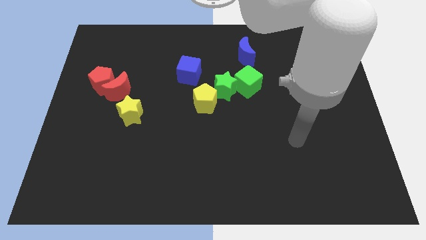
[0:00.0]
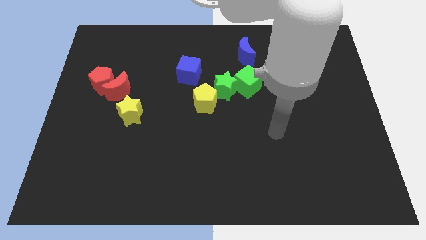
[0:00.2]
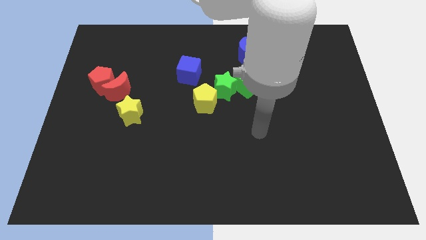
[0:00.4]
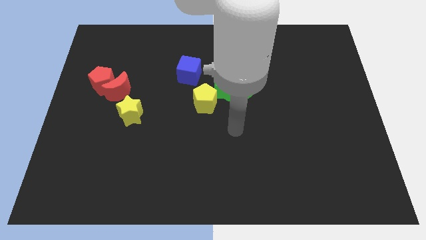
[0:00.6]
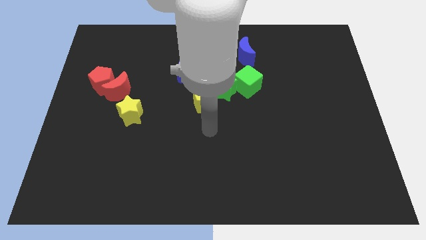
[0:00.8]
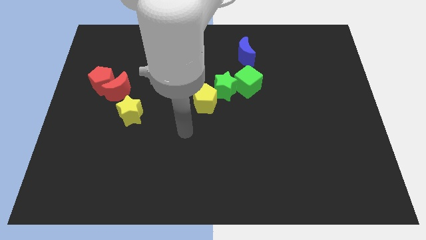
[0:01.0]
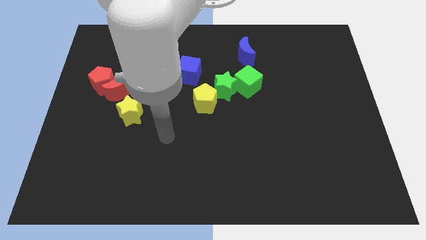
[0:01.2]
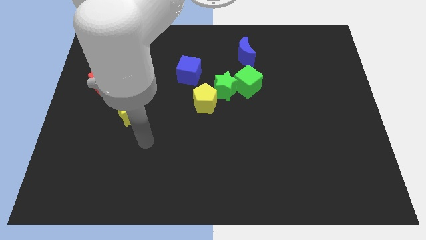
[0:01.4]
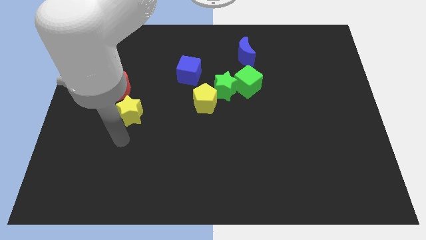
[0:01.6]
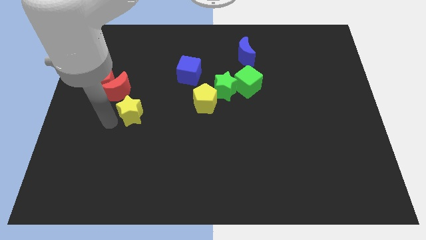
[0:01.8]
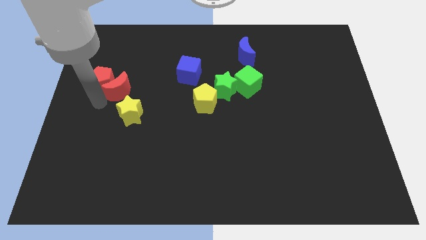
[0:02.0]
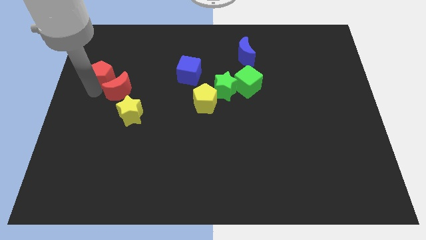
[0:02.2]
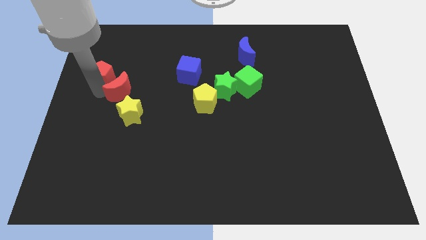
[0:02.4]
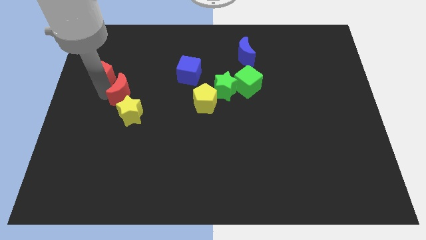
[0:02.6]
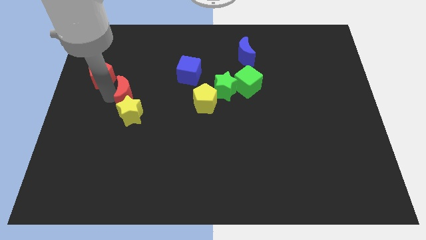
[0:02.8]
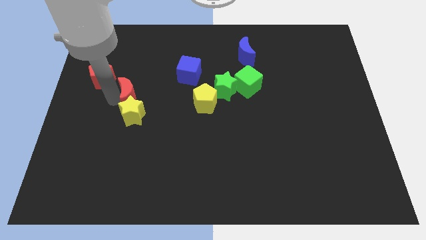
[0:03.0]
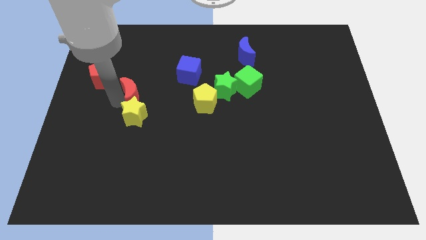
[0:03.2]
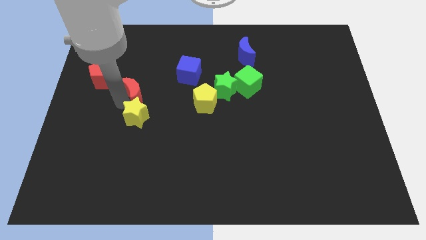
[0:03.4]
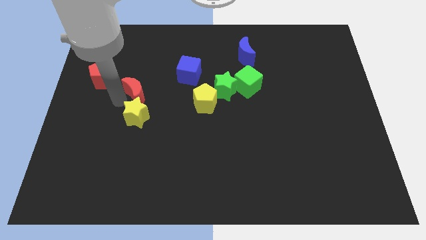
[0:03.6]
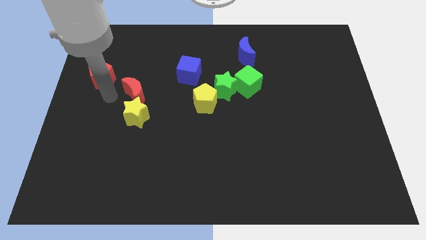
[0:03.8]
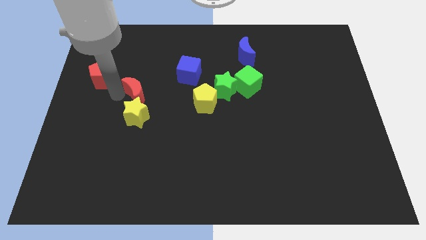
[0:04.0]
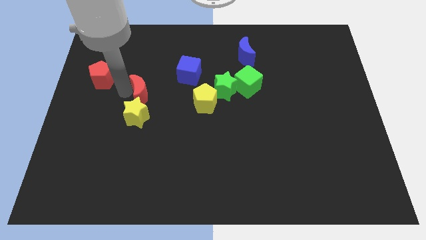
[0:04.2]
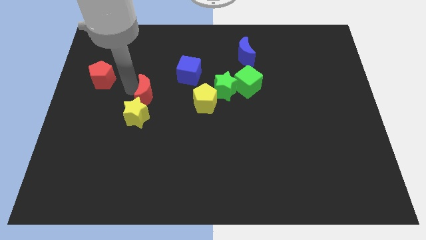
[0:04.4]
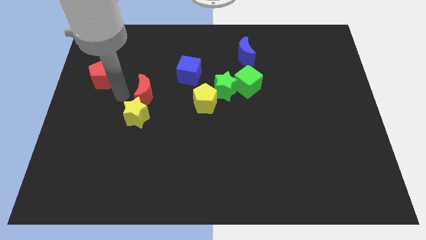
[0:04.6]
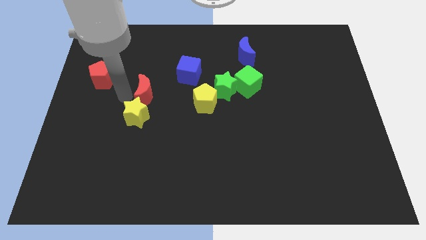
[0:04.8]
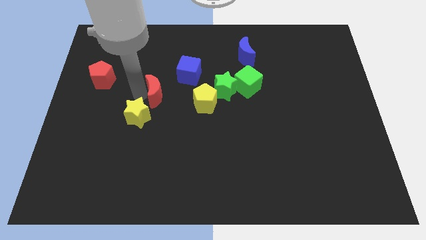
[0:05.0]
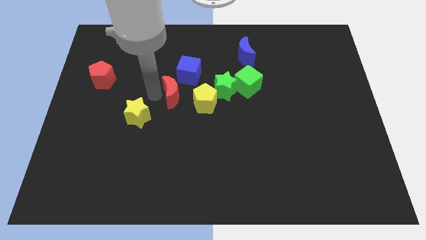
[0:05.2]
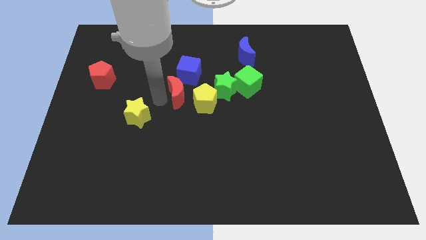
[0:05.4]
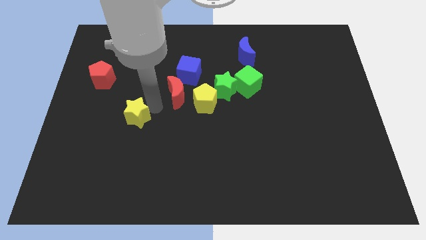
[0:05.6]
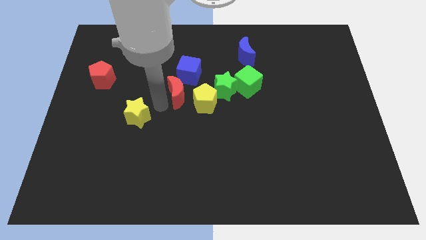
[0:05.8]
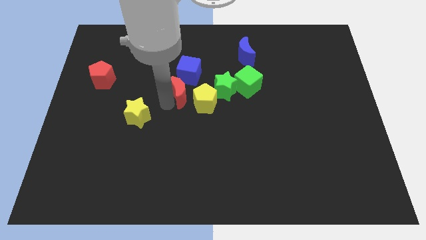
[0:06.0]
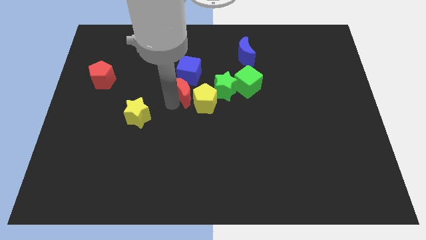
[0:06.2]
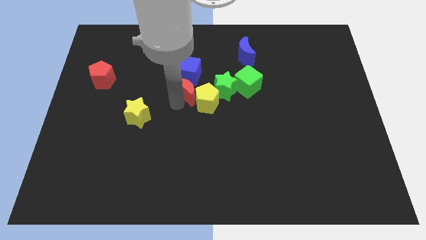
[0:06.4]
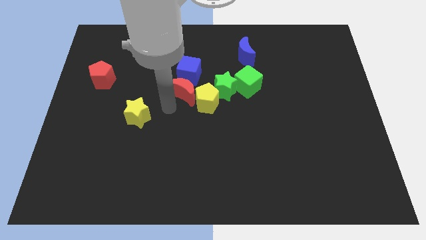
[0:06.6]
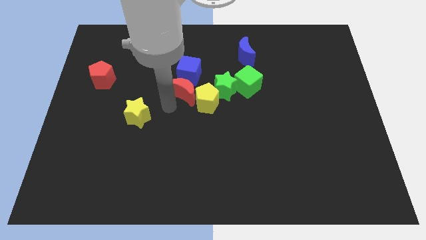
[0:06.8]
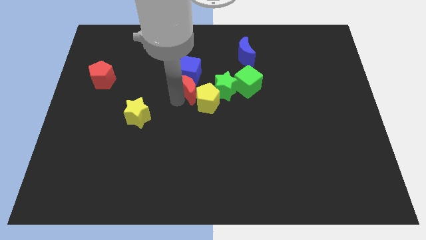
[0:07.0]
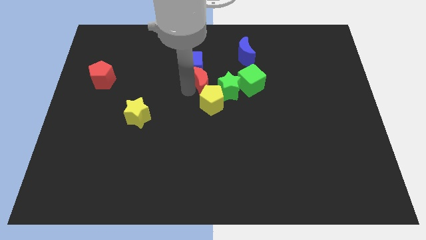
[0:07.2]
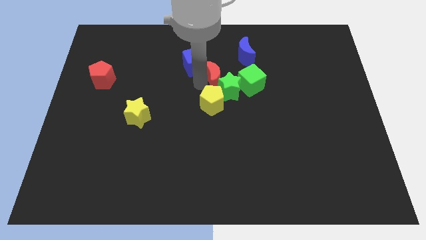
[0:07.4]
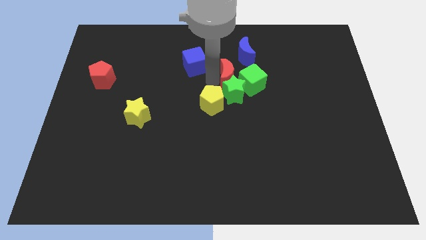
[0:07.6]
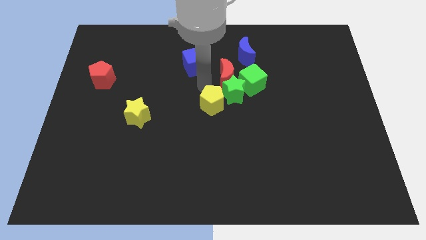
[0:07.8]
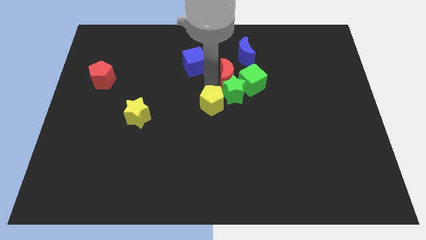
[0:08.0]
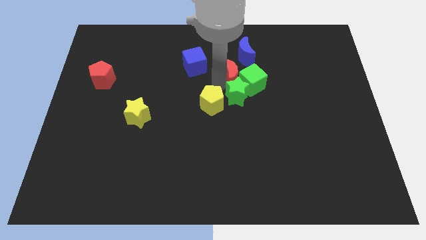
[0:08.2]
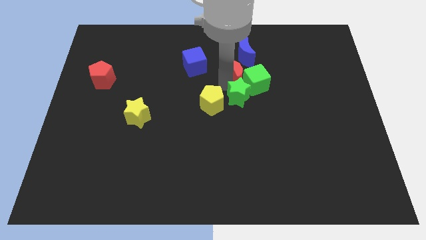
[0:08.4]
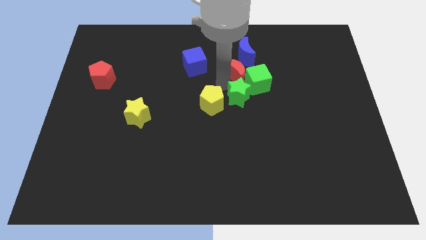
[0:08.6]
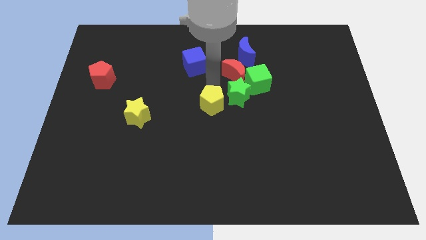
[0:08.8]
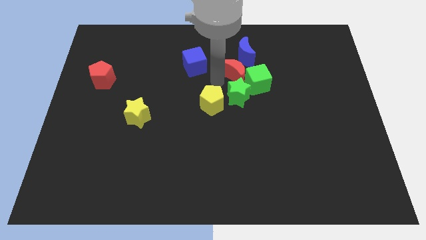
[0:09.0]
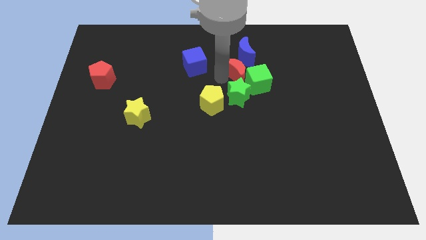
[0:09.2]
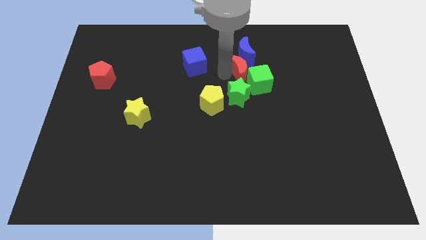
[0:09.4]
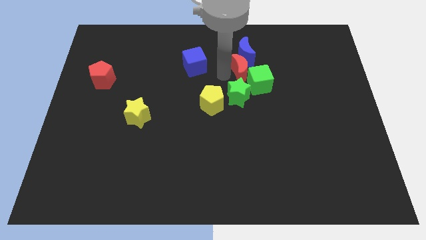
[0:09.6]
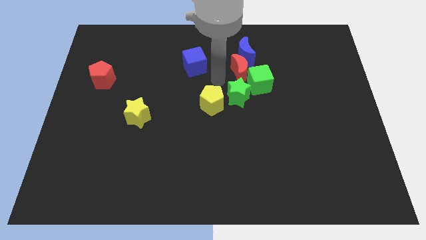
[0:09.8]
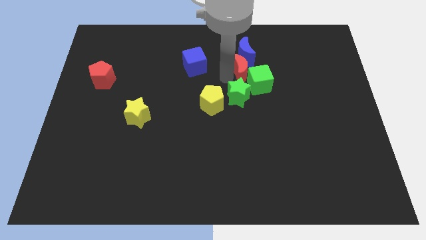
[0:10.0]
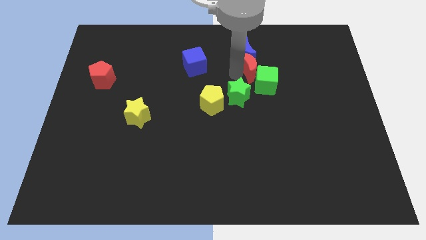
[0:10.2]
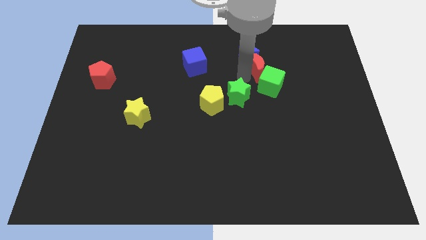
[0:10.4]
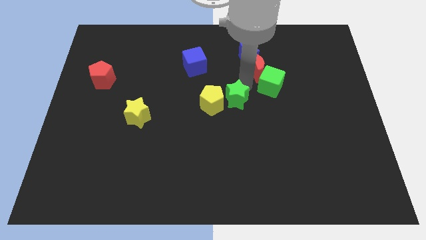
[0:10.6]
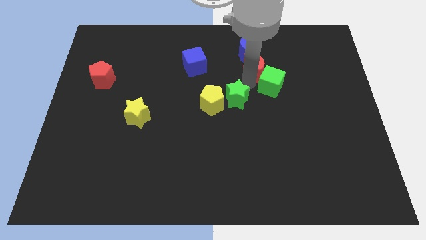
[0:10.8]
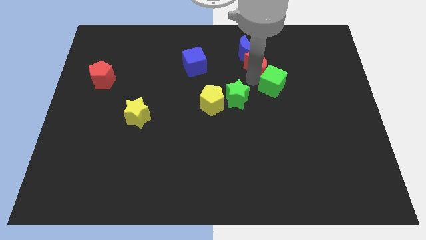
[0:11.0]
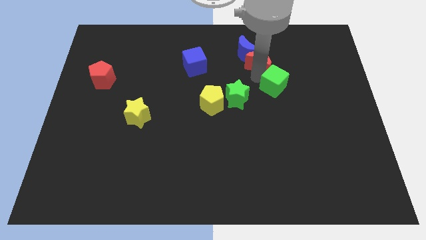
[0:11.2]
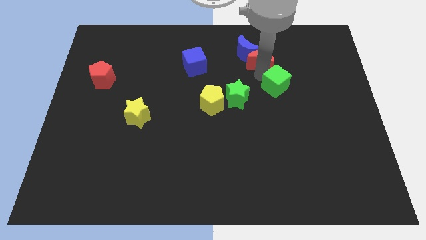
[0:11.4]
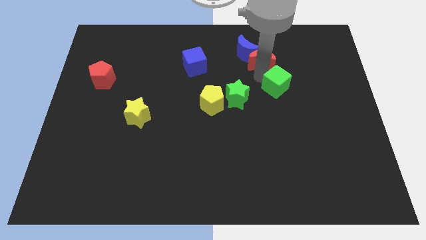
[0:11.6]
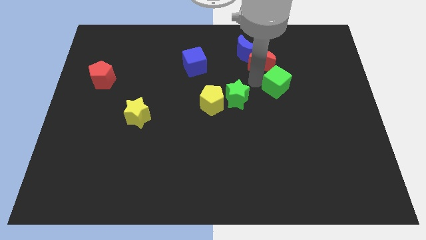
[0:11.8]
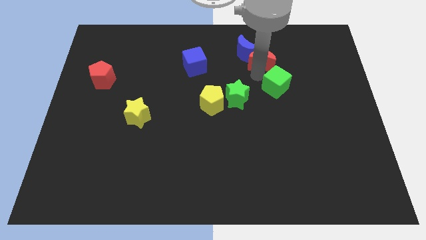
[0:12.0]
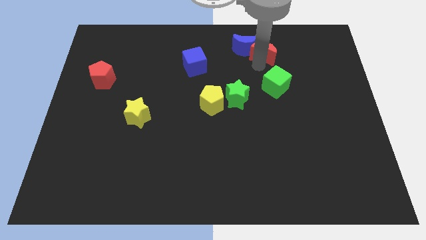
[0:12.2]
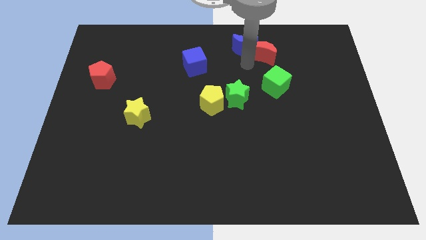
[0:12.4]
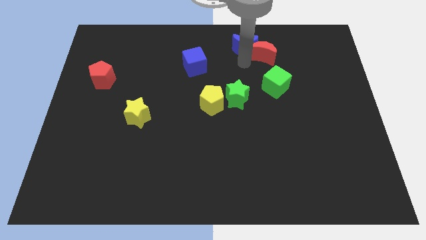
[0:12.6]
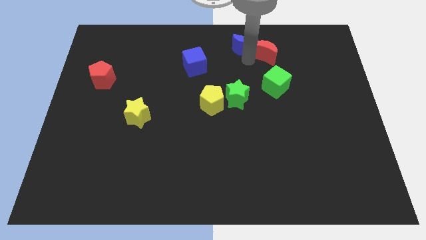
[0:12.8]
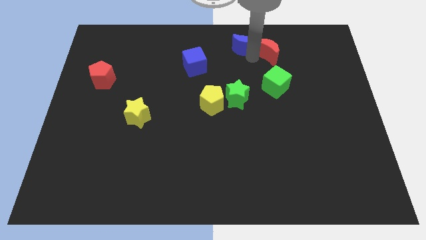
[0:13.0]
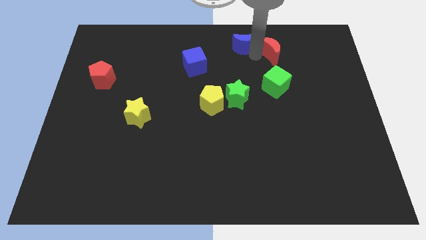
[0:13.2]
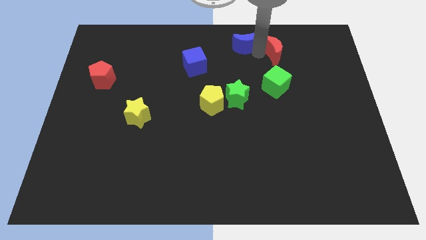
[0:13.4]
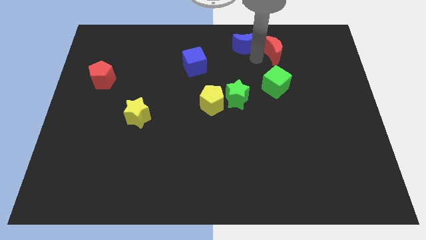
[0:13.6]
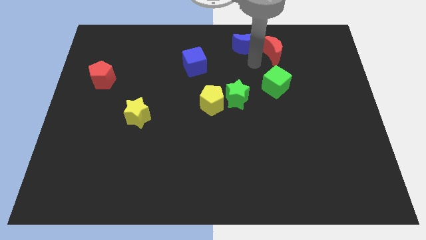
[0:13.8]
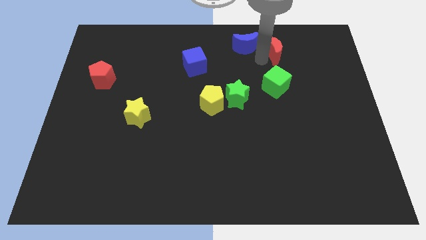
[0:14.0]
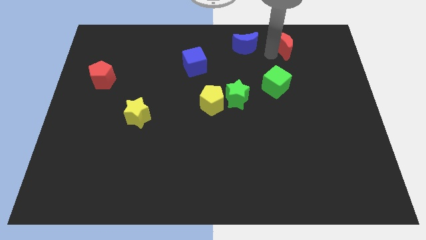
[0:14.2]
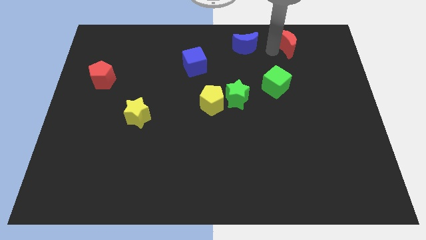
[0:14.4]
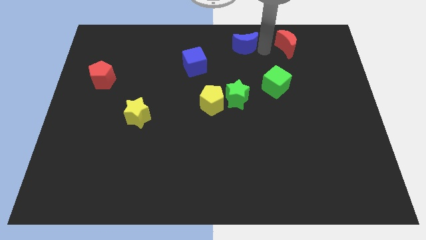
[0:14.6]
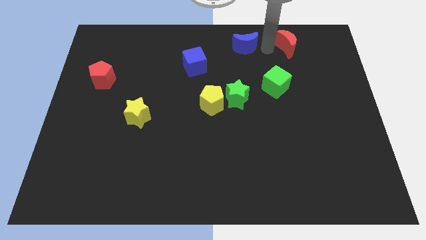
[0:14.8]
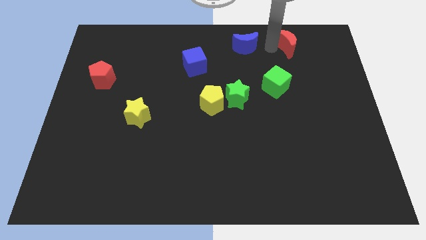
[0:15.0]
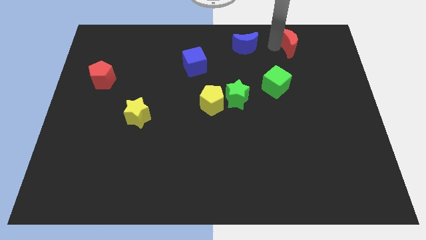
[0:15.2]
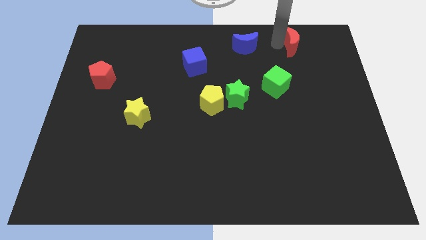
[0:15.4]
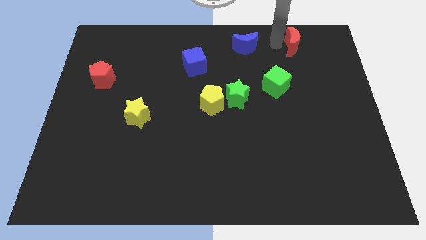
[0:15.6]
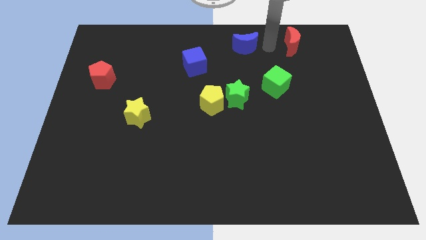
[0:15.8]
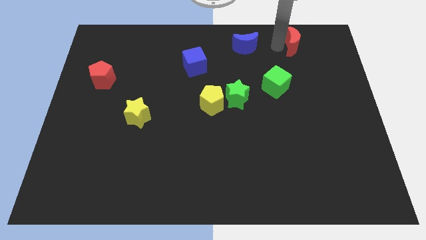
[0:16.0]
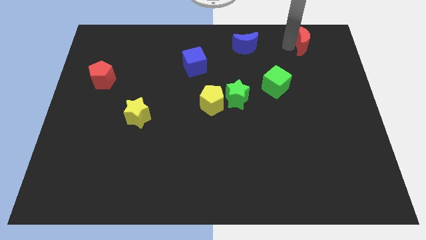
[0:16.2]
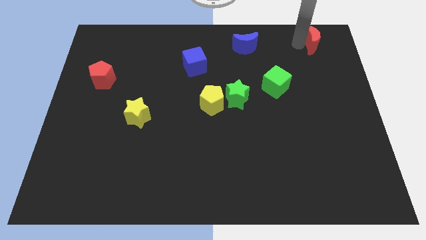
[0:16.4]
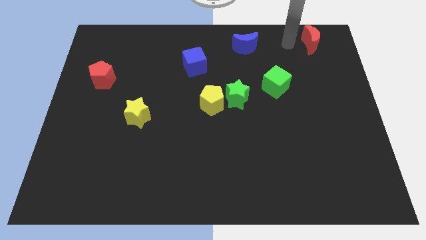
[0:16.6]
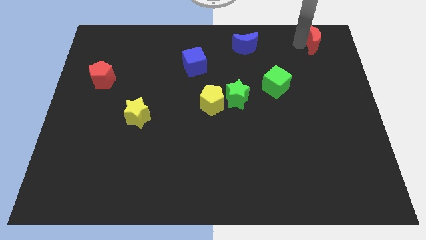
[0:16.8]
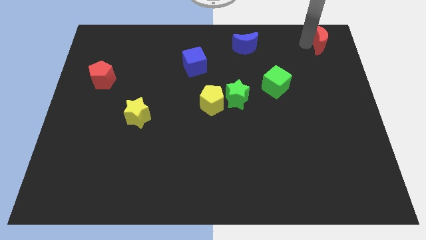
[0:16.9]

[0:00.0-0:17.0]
put the red moon to the top right corner
